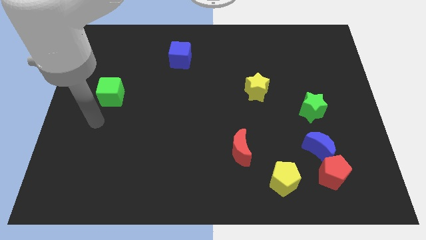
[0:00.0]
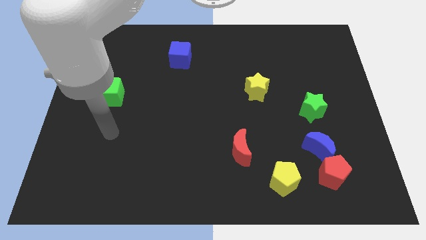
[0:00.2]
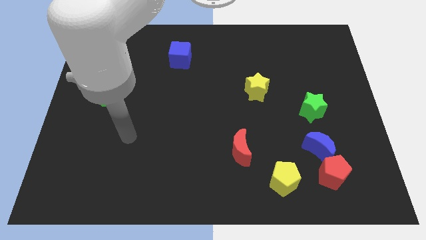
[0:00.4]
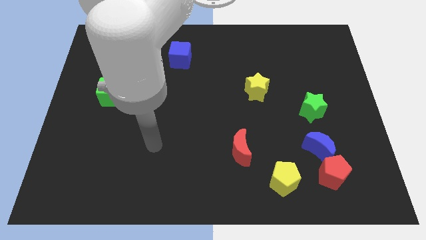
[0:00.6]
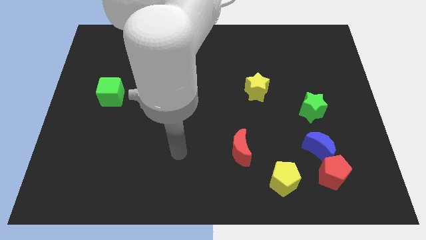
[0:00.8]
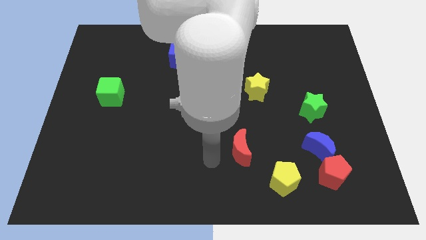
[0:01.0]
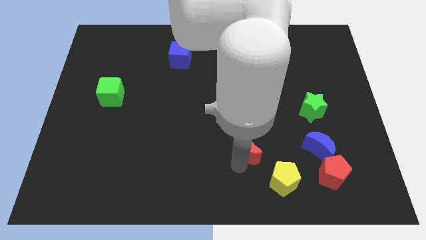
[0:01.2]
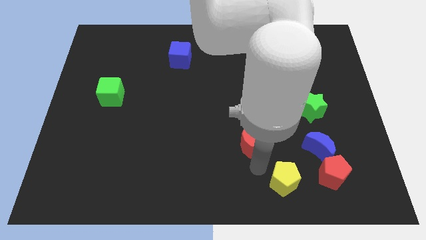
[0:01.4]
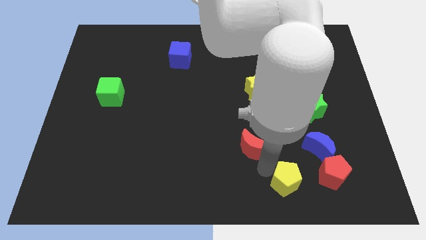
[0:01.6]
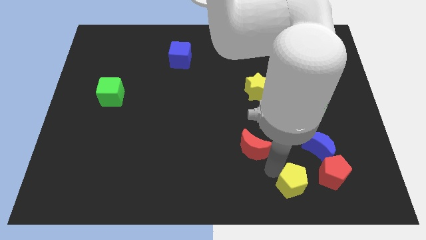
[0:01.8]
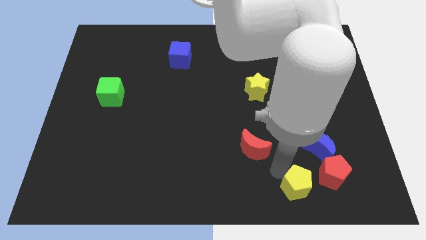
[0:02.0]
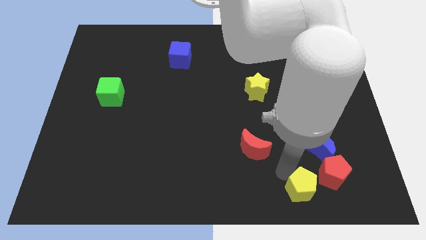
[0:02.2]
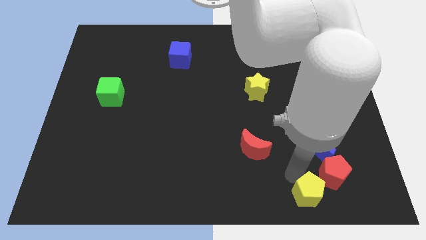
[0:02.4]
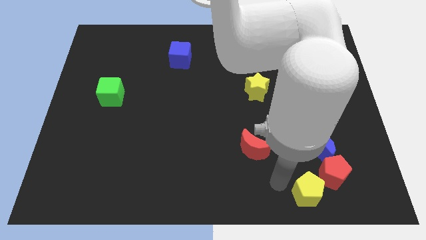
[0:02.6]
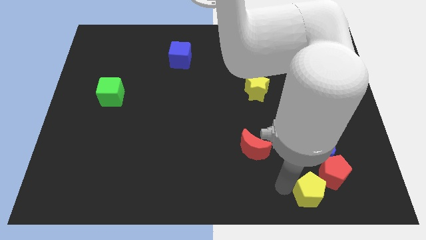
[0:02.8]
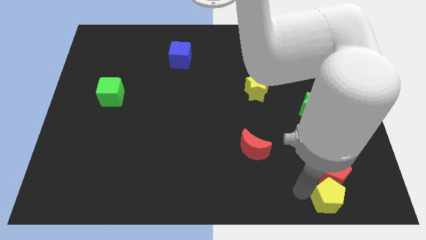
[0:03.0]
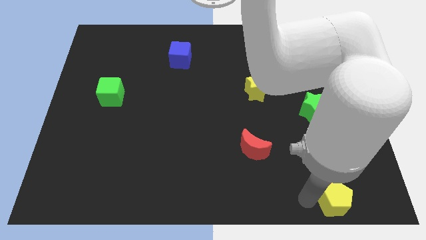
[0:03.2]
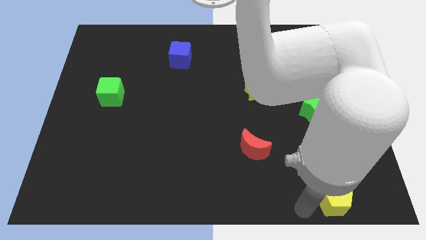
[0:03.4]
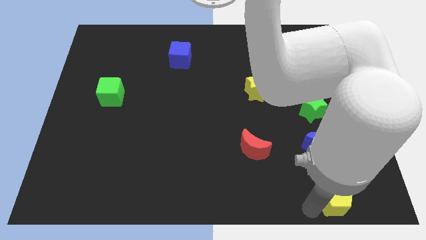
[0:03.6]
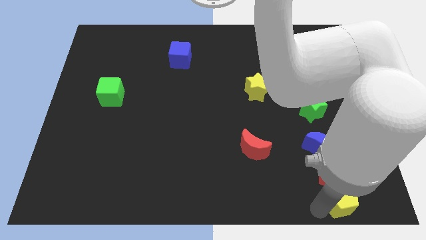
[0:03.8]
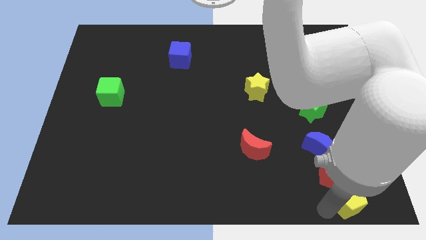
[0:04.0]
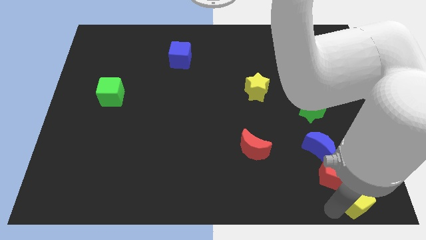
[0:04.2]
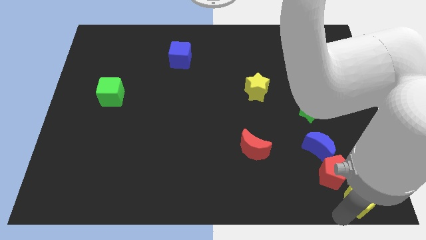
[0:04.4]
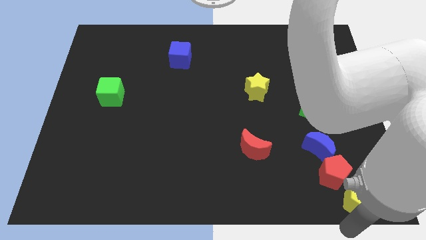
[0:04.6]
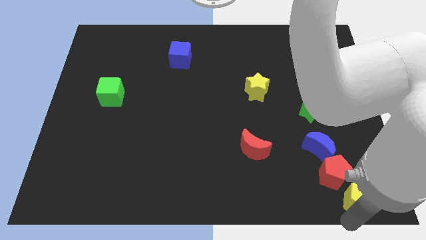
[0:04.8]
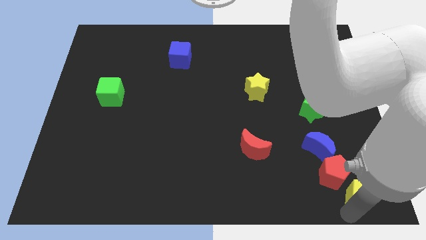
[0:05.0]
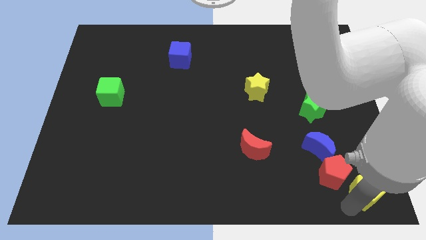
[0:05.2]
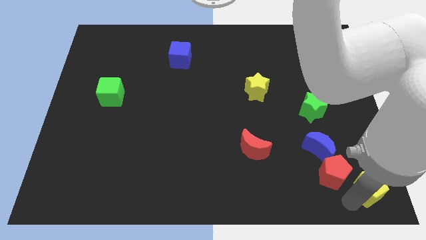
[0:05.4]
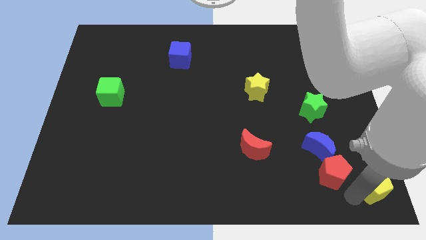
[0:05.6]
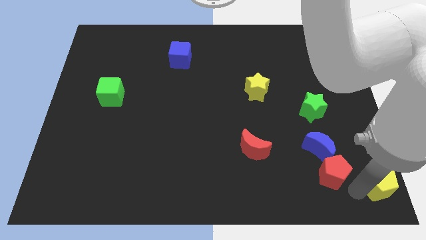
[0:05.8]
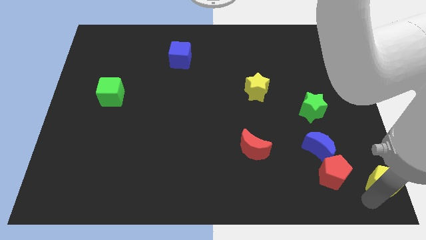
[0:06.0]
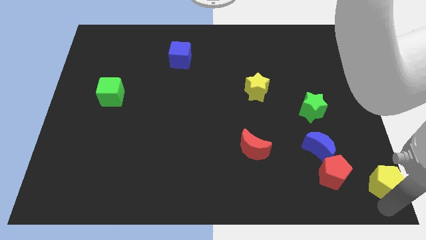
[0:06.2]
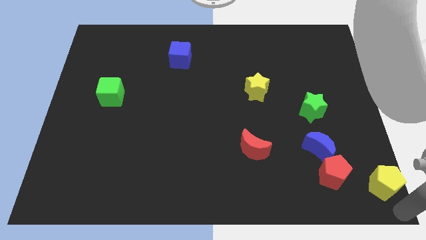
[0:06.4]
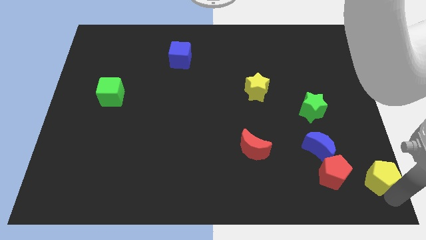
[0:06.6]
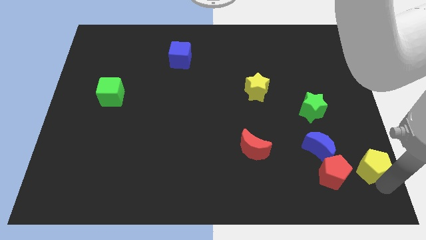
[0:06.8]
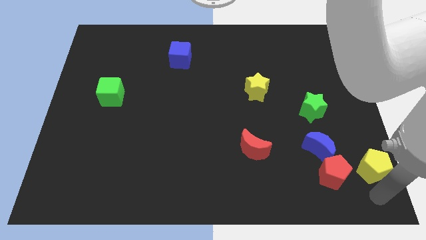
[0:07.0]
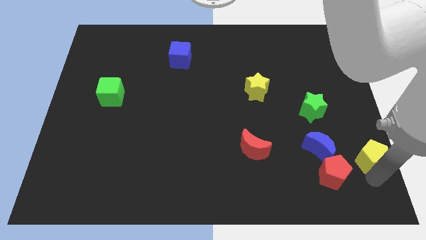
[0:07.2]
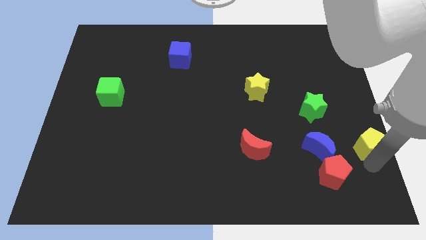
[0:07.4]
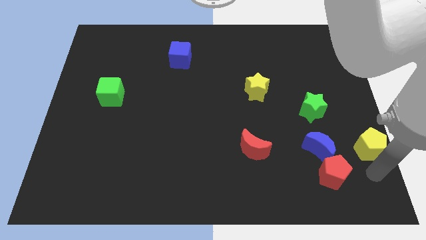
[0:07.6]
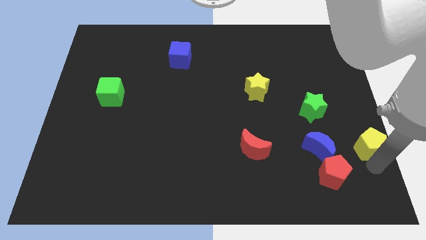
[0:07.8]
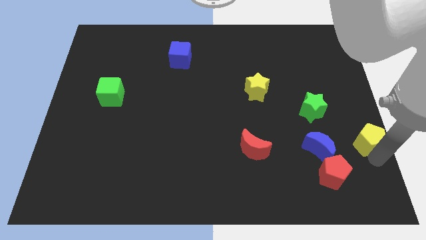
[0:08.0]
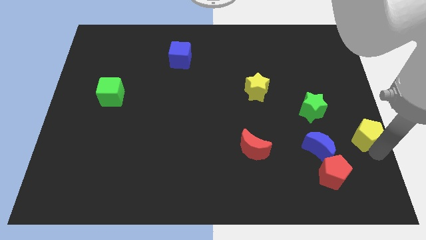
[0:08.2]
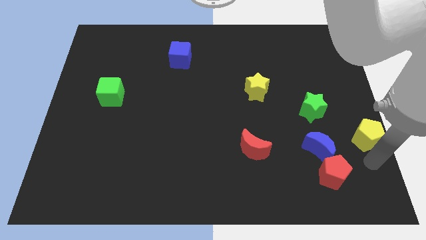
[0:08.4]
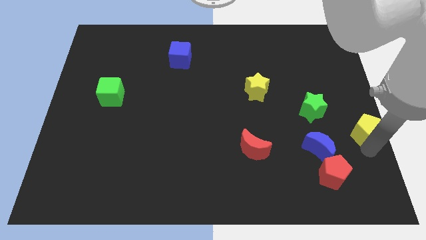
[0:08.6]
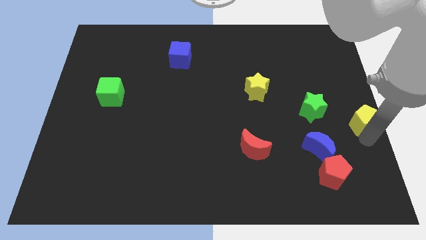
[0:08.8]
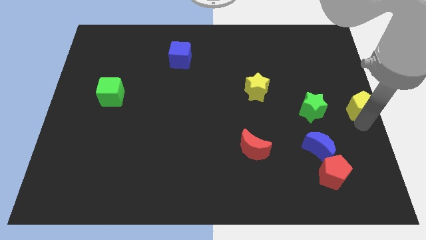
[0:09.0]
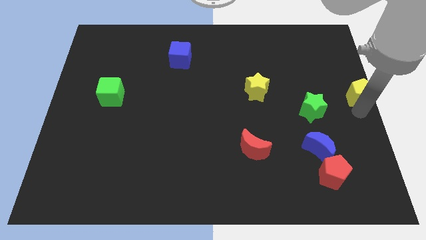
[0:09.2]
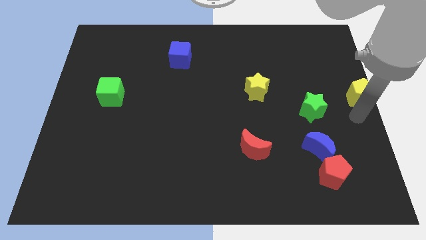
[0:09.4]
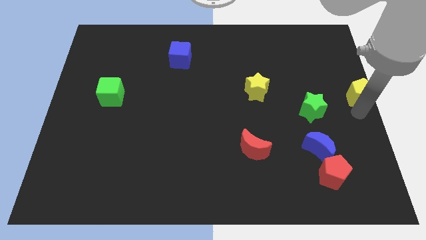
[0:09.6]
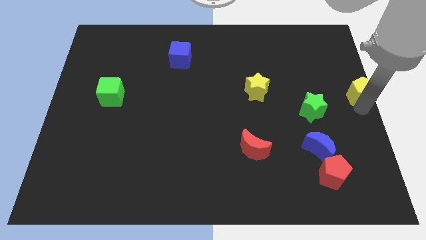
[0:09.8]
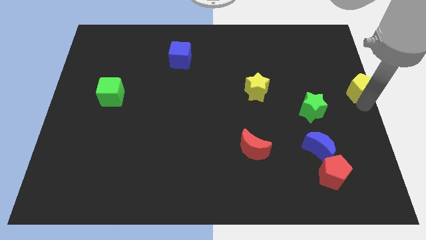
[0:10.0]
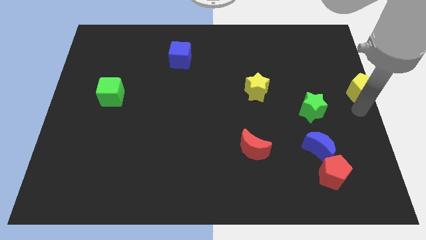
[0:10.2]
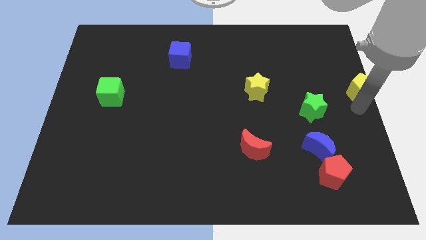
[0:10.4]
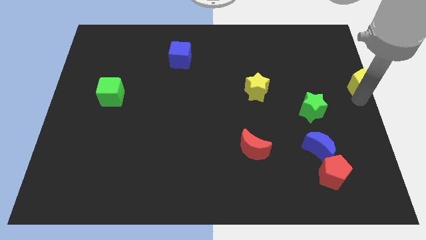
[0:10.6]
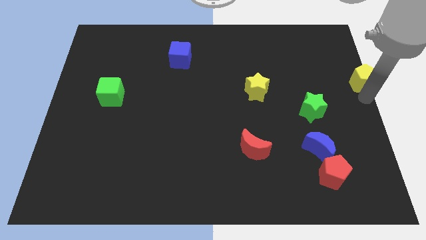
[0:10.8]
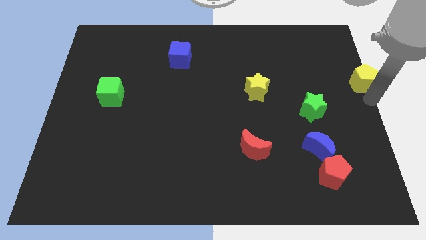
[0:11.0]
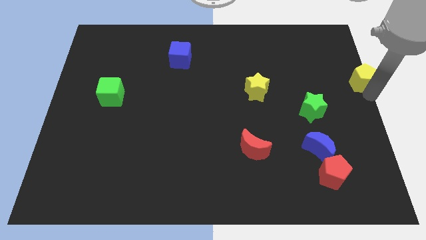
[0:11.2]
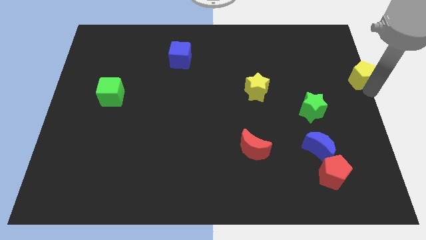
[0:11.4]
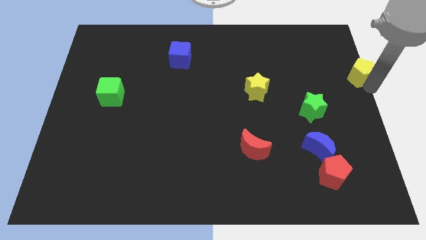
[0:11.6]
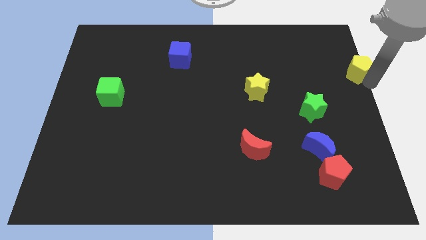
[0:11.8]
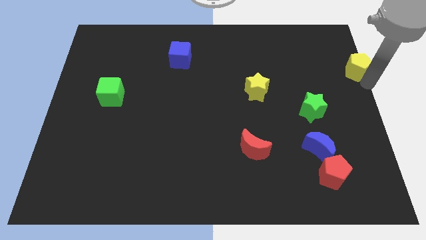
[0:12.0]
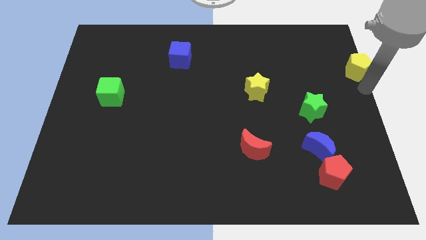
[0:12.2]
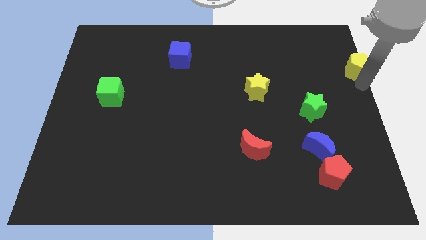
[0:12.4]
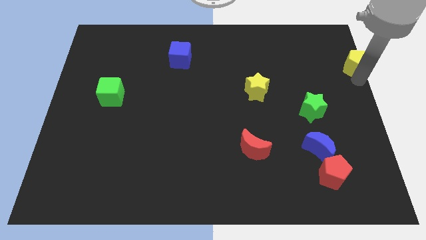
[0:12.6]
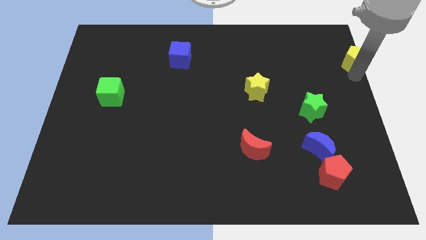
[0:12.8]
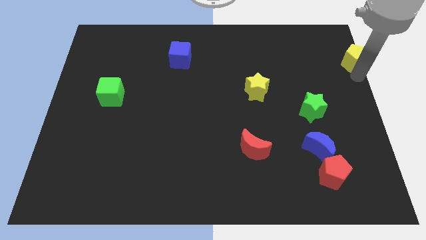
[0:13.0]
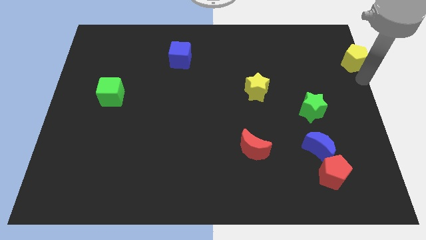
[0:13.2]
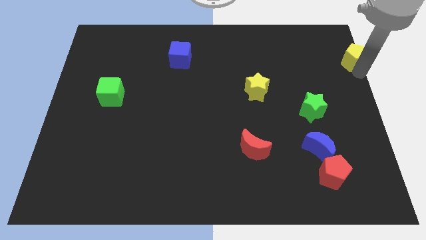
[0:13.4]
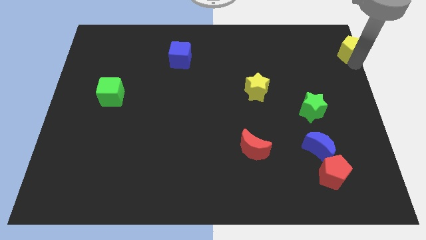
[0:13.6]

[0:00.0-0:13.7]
put the yellow pentagon to the top right
